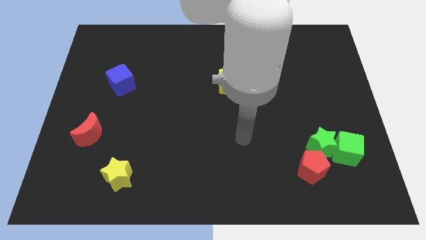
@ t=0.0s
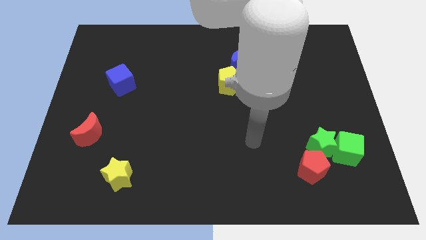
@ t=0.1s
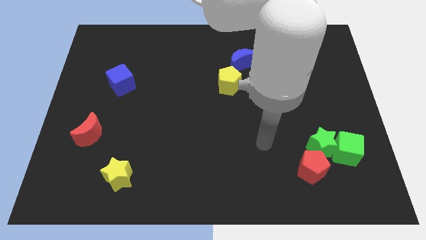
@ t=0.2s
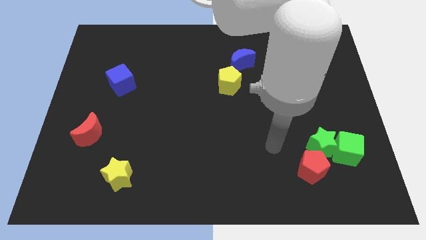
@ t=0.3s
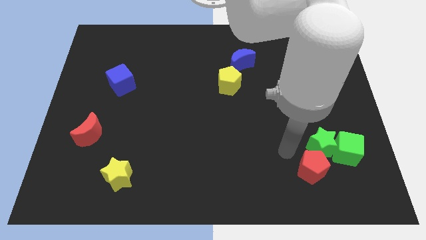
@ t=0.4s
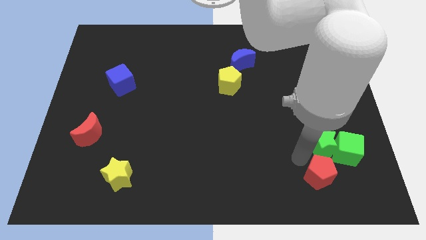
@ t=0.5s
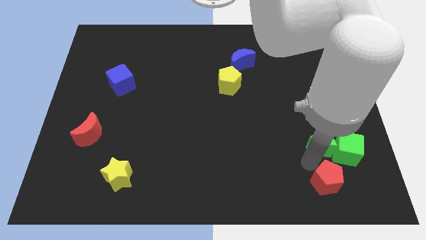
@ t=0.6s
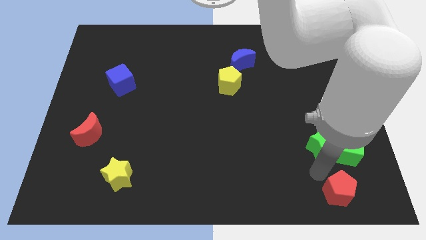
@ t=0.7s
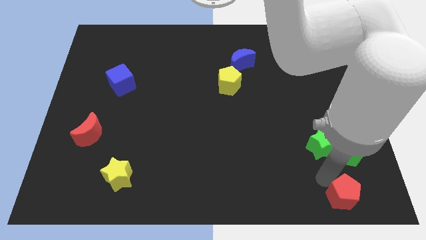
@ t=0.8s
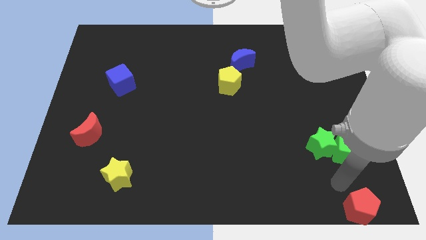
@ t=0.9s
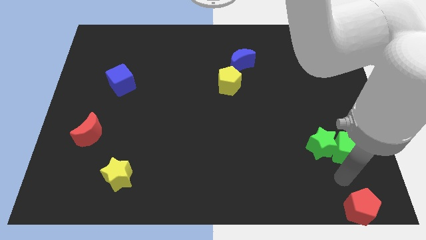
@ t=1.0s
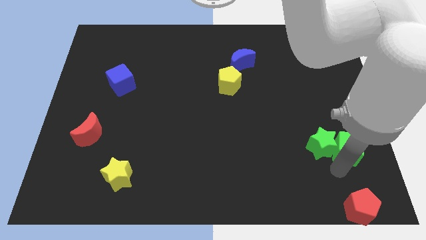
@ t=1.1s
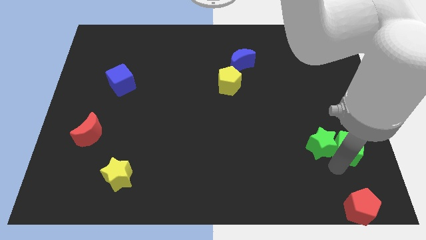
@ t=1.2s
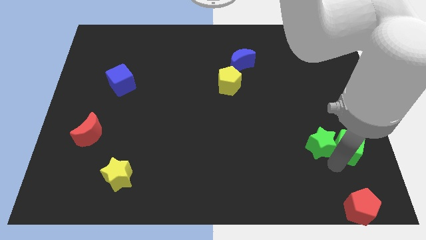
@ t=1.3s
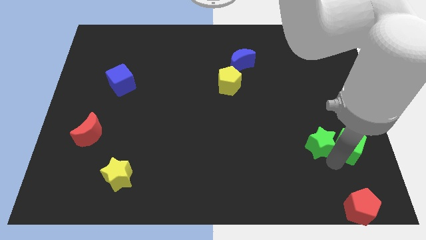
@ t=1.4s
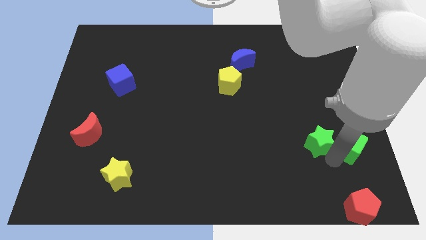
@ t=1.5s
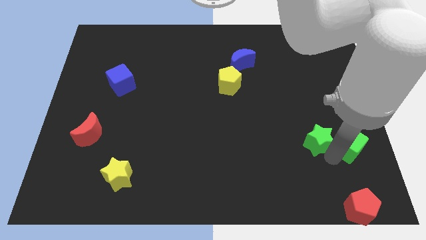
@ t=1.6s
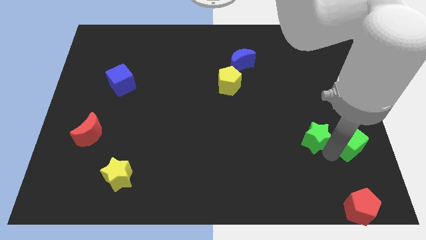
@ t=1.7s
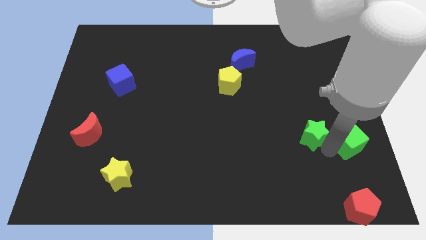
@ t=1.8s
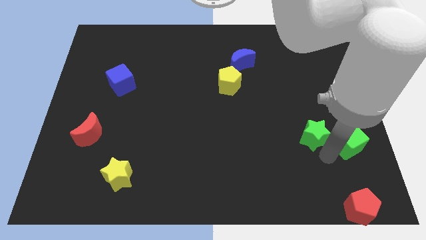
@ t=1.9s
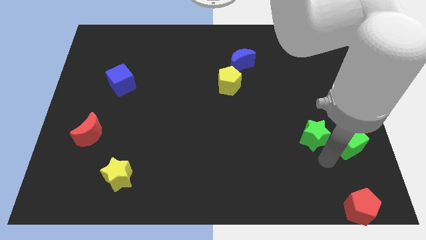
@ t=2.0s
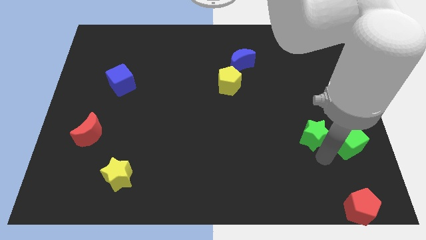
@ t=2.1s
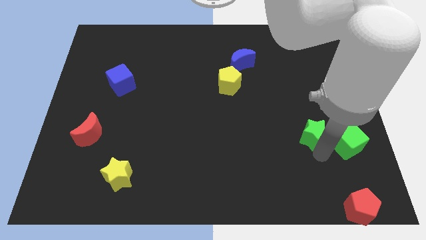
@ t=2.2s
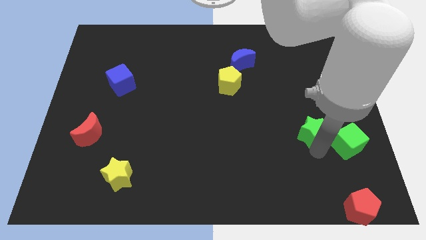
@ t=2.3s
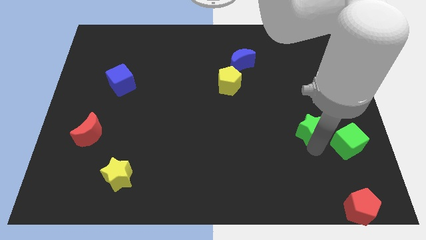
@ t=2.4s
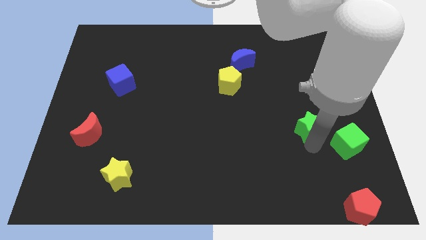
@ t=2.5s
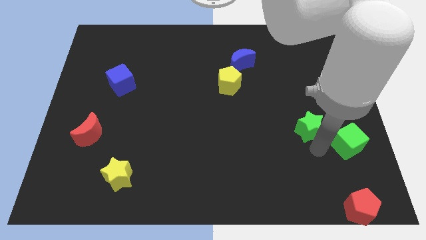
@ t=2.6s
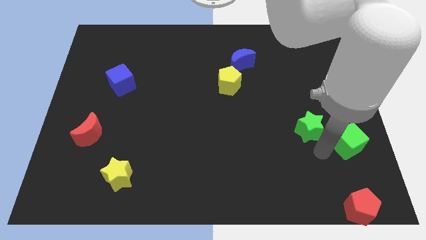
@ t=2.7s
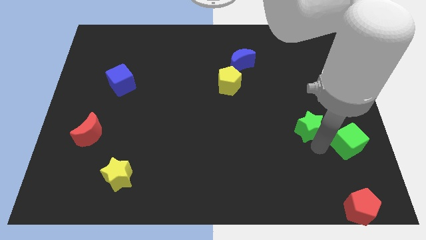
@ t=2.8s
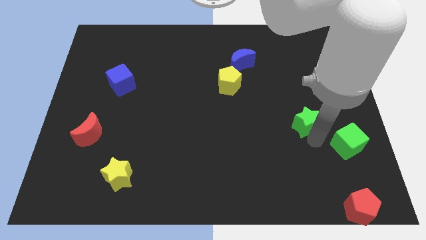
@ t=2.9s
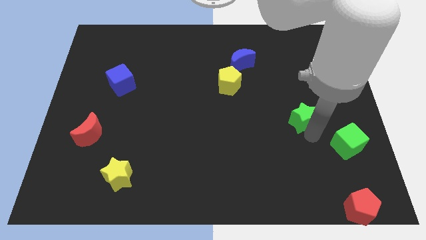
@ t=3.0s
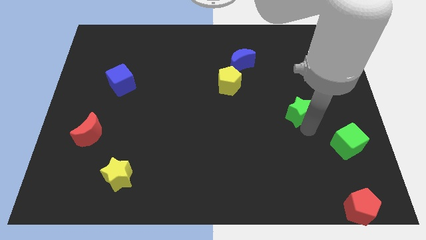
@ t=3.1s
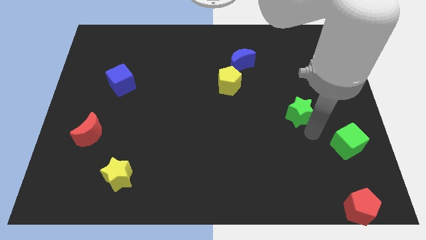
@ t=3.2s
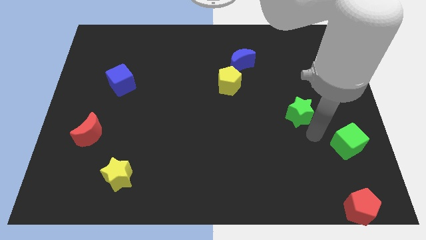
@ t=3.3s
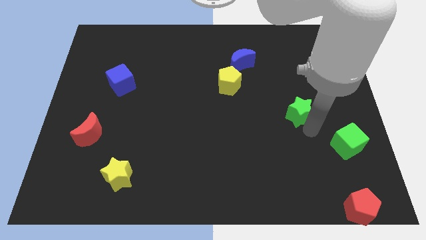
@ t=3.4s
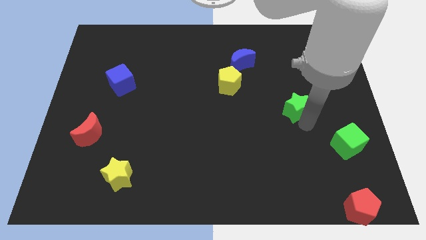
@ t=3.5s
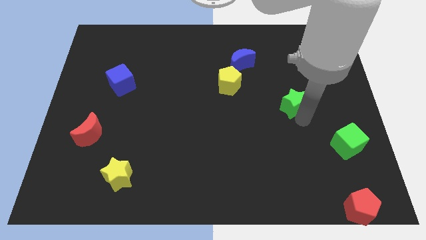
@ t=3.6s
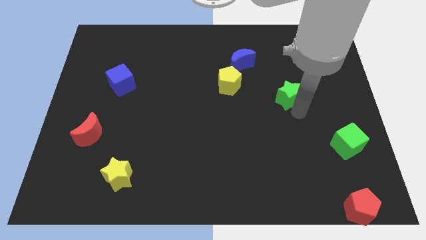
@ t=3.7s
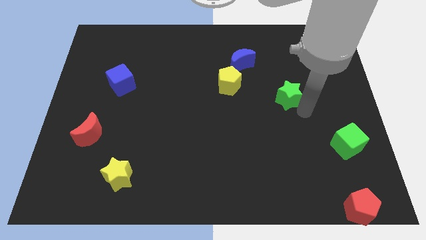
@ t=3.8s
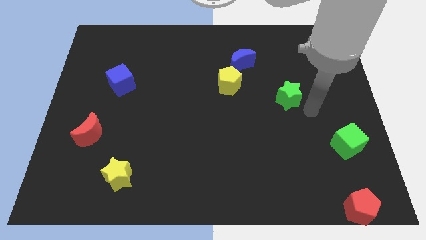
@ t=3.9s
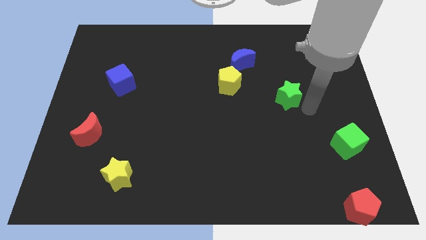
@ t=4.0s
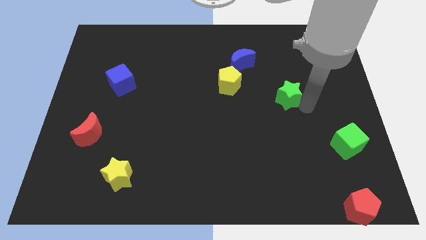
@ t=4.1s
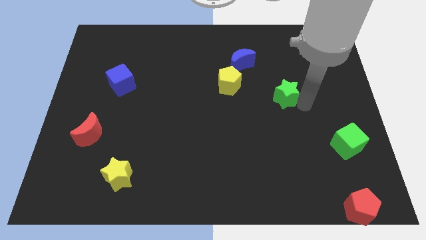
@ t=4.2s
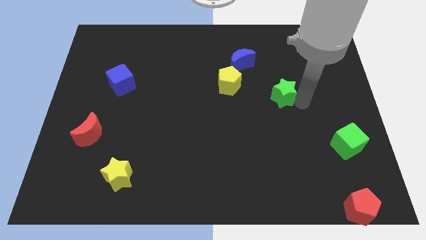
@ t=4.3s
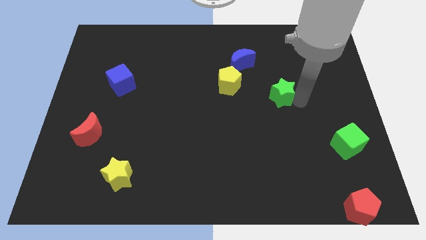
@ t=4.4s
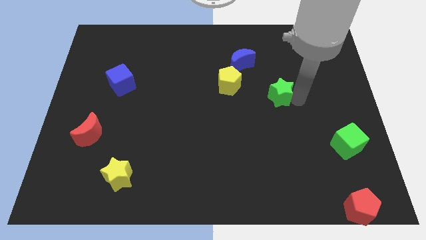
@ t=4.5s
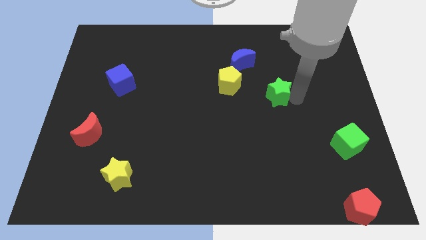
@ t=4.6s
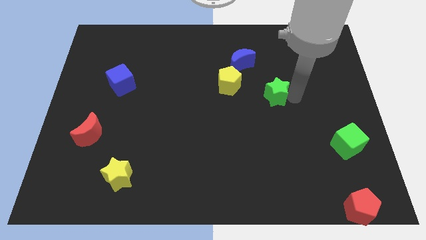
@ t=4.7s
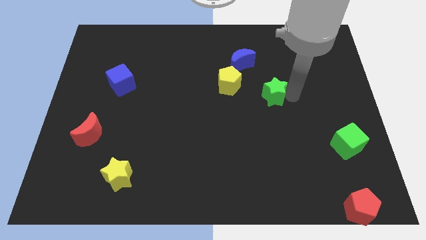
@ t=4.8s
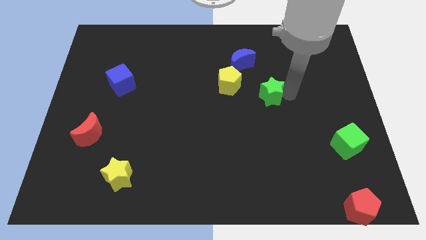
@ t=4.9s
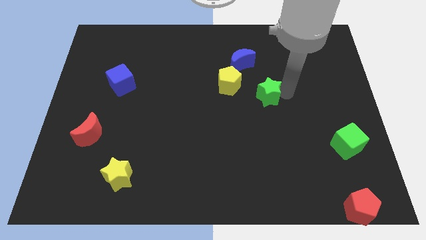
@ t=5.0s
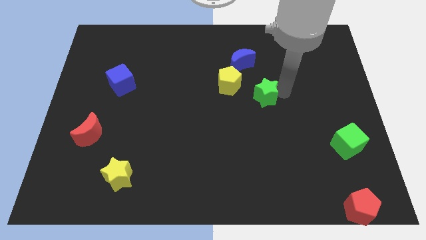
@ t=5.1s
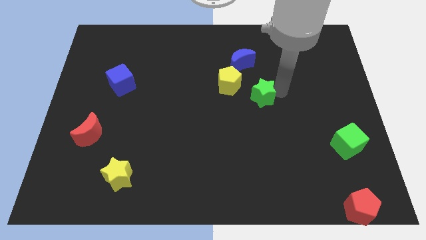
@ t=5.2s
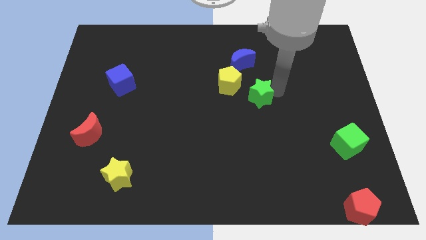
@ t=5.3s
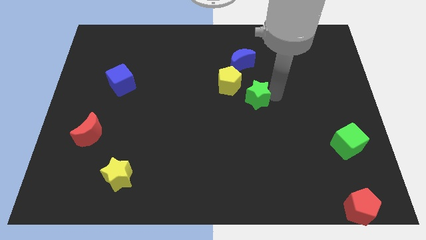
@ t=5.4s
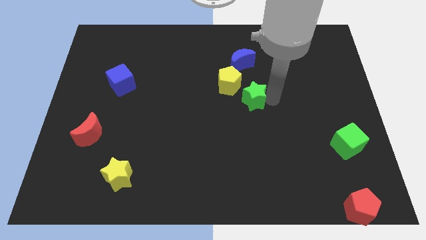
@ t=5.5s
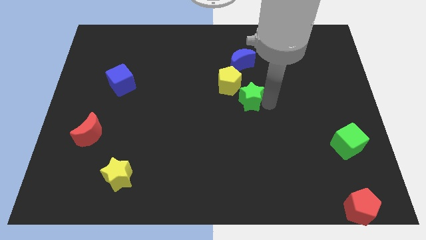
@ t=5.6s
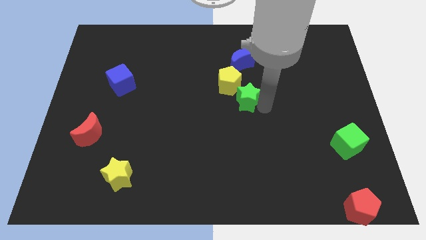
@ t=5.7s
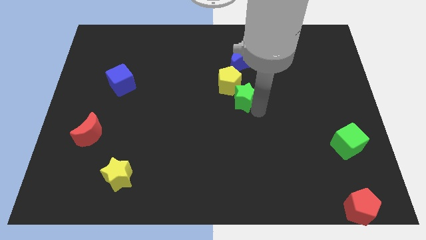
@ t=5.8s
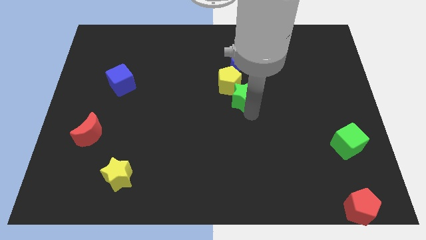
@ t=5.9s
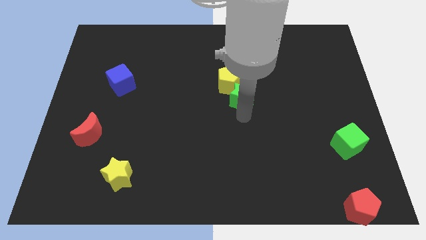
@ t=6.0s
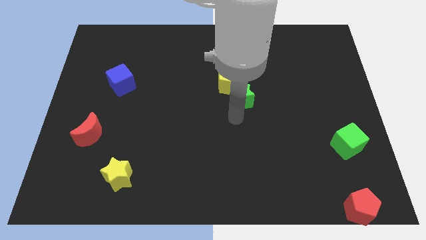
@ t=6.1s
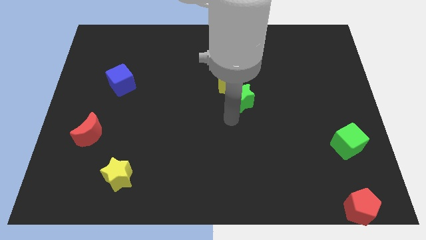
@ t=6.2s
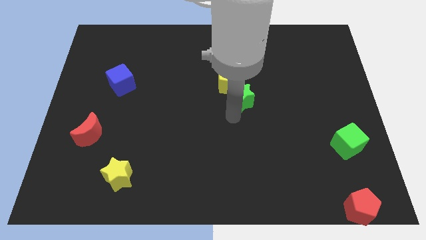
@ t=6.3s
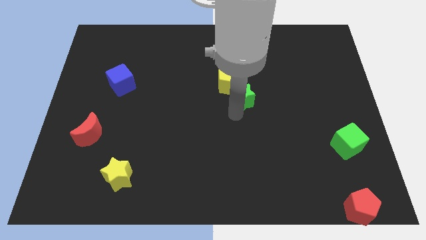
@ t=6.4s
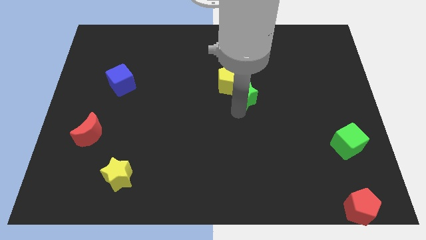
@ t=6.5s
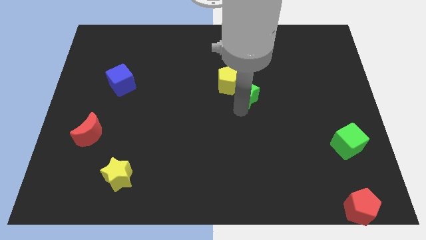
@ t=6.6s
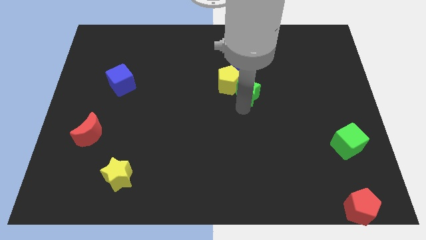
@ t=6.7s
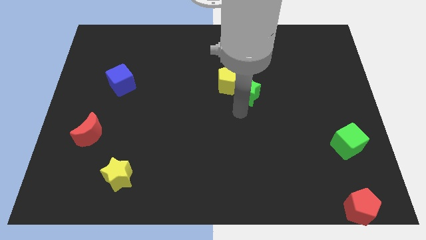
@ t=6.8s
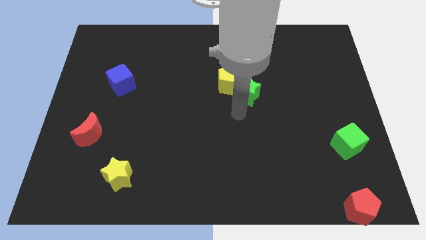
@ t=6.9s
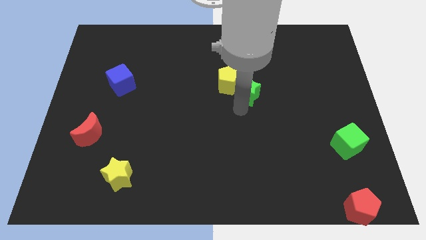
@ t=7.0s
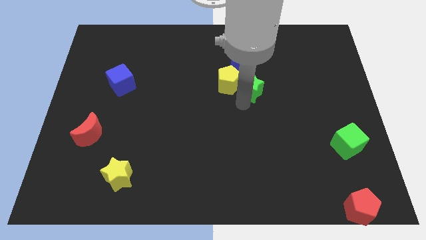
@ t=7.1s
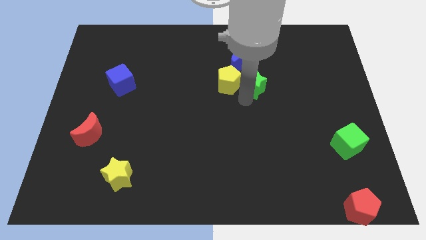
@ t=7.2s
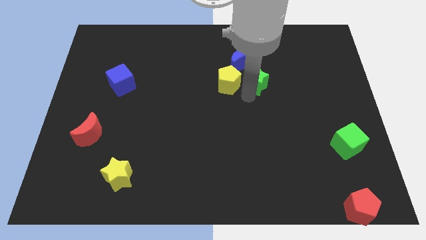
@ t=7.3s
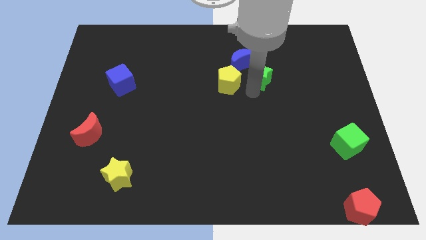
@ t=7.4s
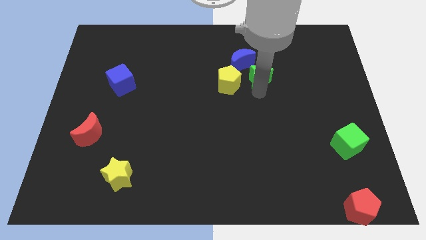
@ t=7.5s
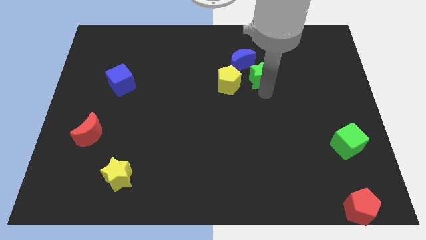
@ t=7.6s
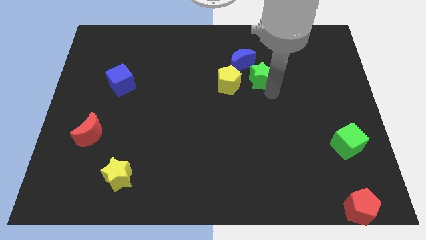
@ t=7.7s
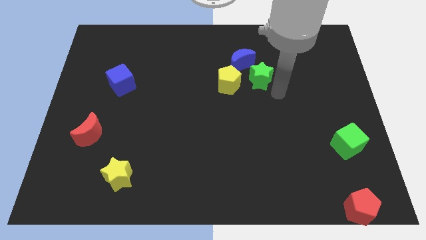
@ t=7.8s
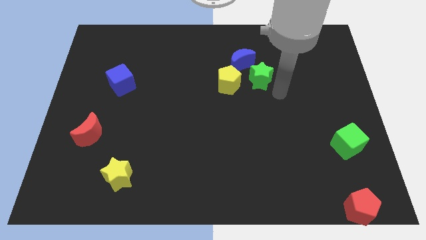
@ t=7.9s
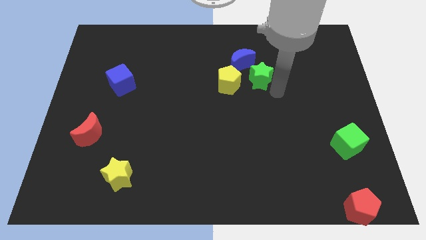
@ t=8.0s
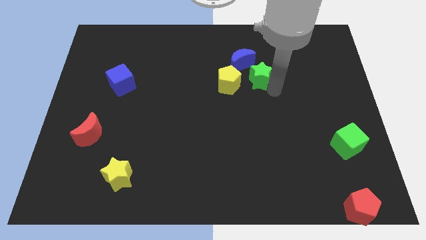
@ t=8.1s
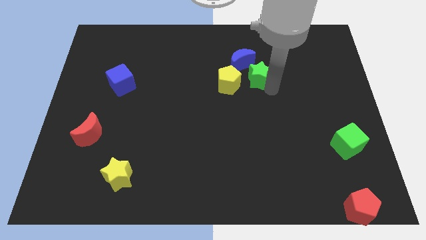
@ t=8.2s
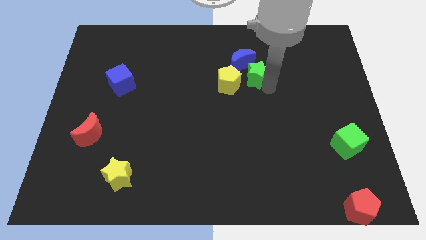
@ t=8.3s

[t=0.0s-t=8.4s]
put the green star towards the blue moon
